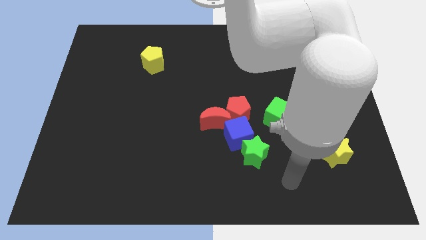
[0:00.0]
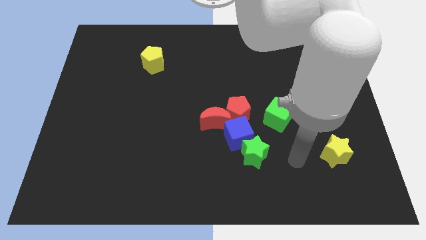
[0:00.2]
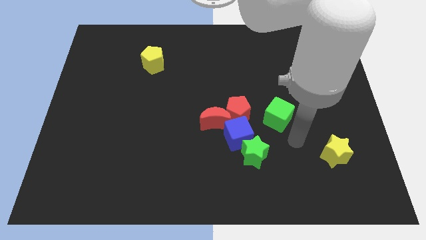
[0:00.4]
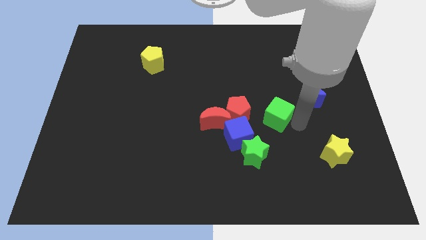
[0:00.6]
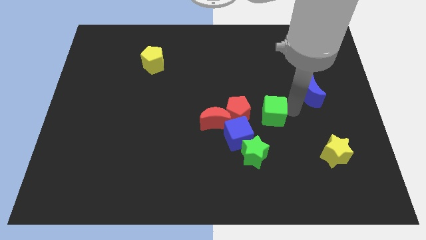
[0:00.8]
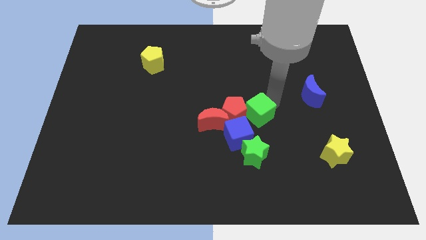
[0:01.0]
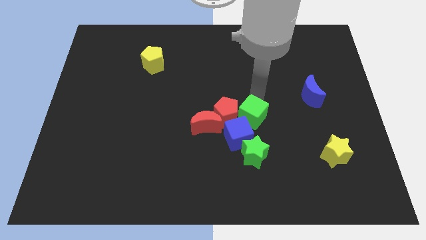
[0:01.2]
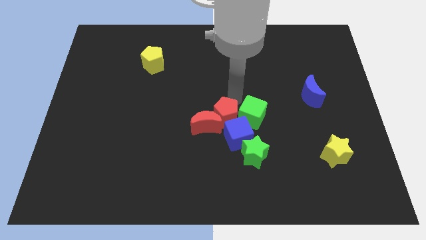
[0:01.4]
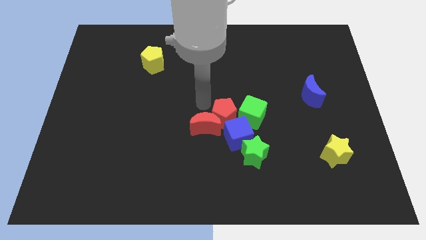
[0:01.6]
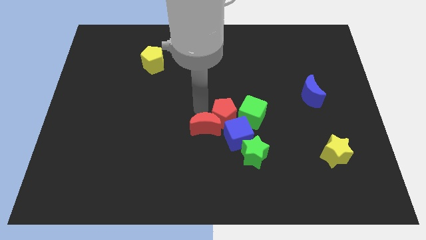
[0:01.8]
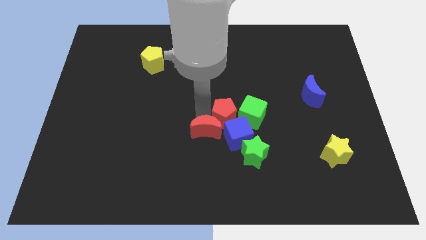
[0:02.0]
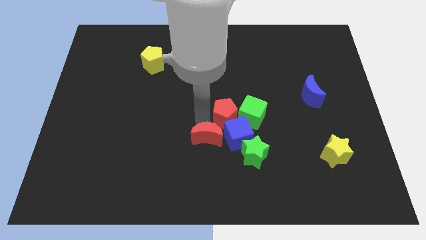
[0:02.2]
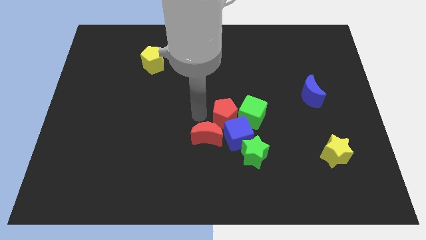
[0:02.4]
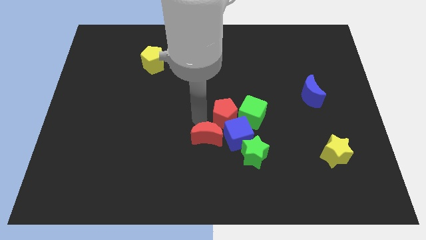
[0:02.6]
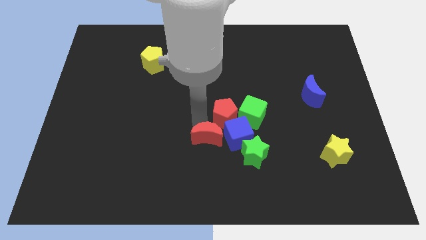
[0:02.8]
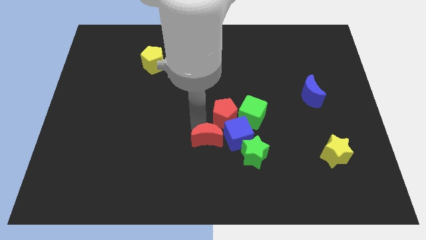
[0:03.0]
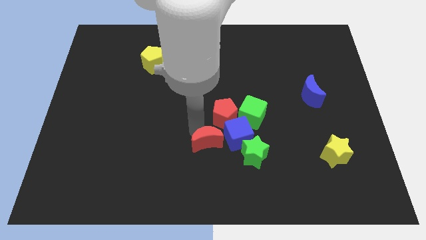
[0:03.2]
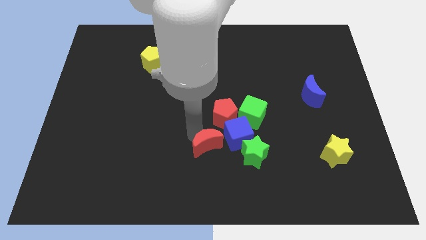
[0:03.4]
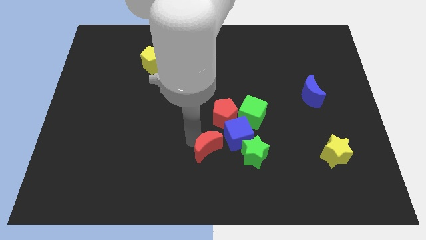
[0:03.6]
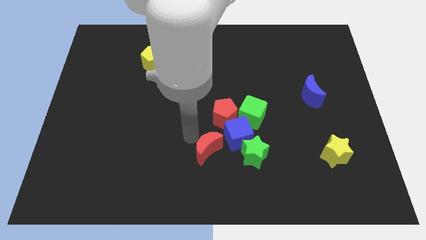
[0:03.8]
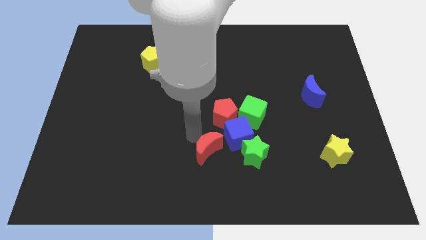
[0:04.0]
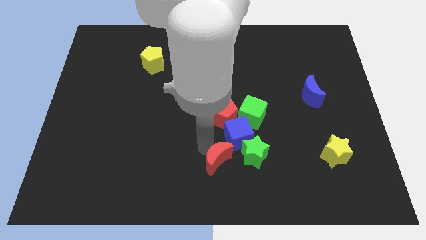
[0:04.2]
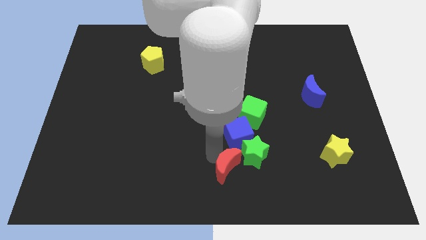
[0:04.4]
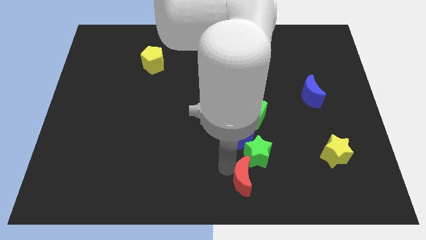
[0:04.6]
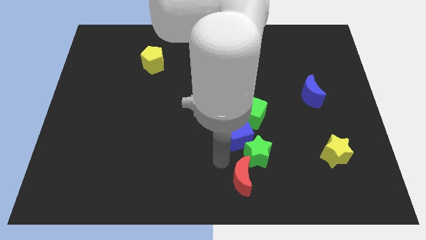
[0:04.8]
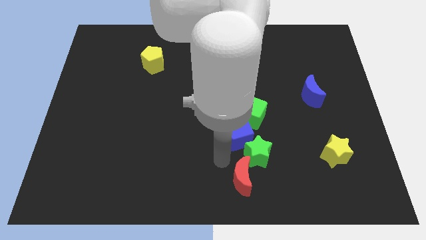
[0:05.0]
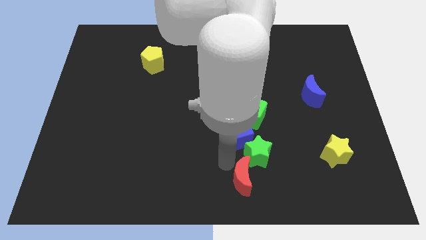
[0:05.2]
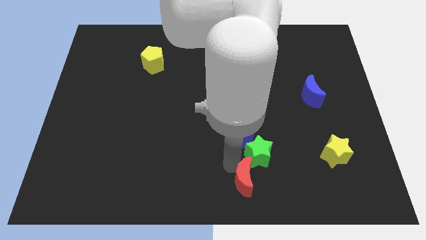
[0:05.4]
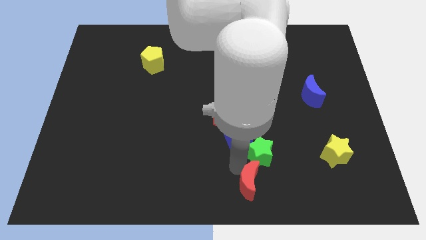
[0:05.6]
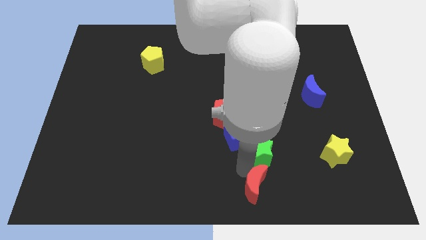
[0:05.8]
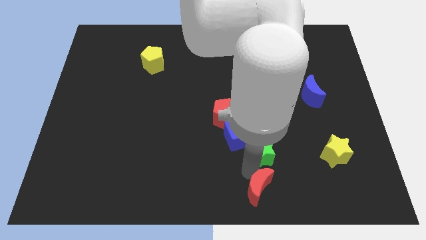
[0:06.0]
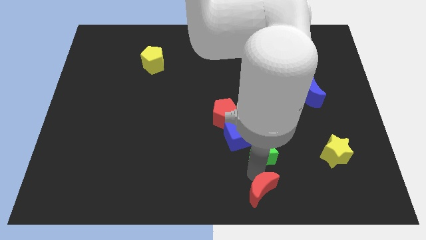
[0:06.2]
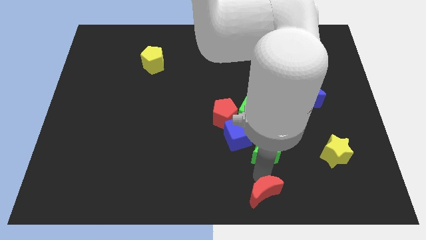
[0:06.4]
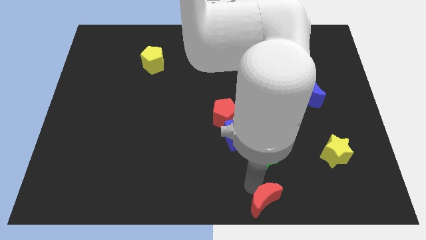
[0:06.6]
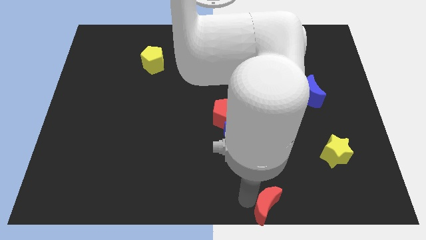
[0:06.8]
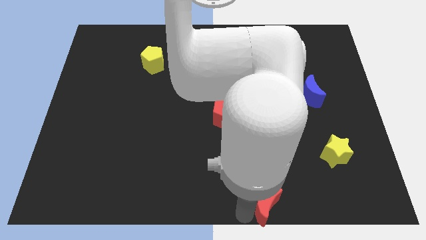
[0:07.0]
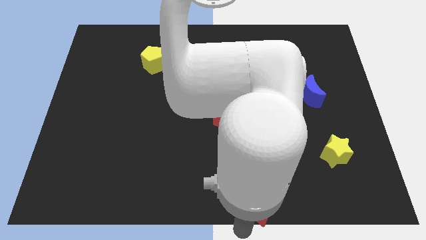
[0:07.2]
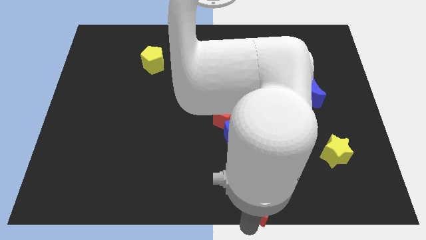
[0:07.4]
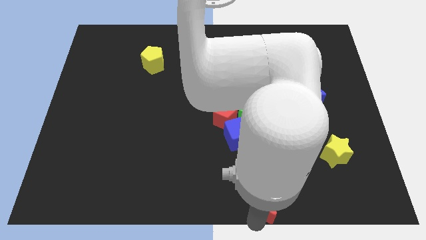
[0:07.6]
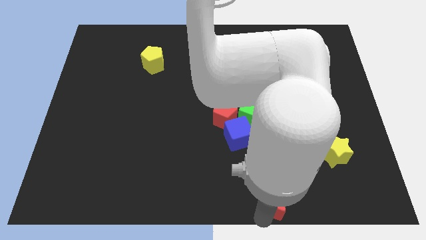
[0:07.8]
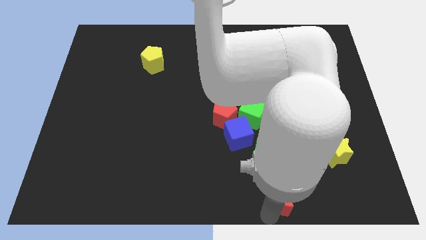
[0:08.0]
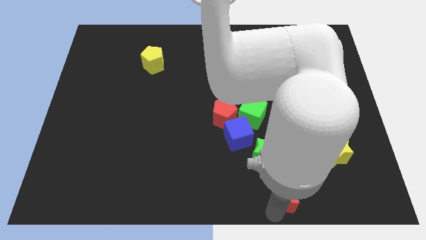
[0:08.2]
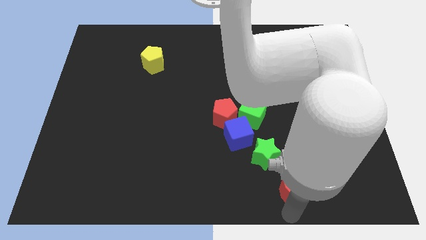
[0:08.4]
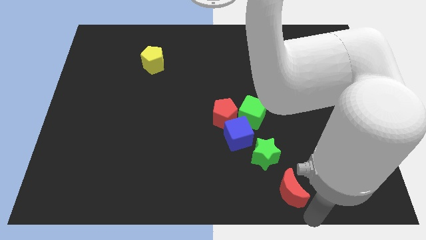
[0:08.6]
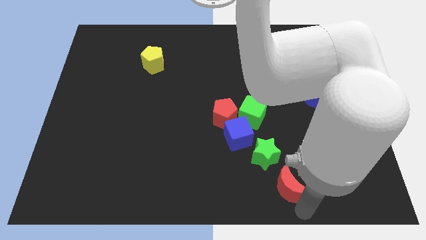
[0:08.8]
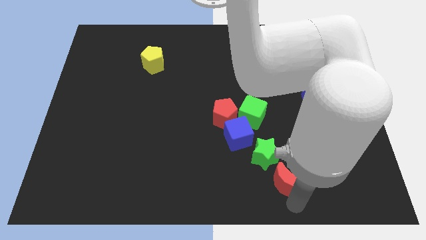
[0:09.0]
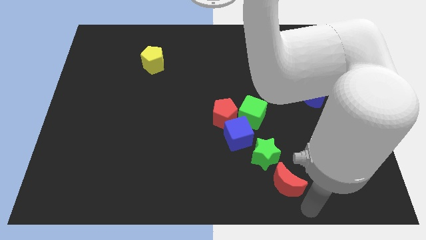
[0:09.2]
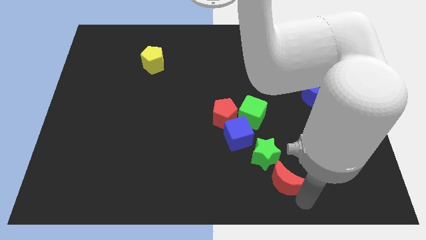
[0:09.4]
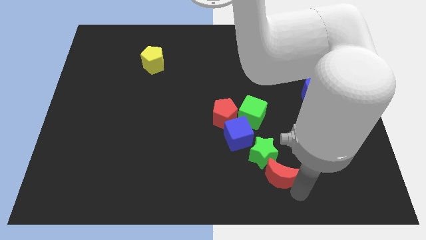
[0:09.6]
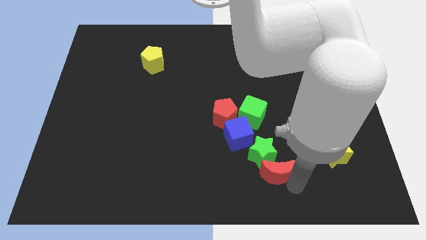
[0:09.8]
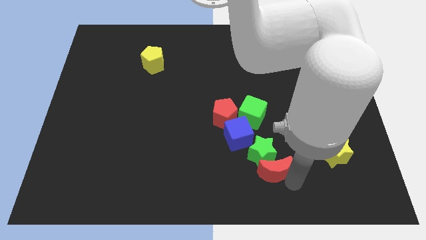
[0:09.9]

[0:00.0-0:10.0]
push the red moon to the bottom side of the green cube

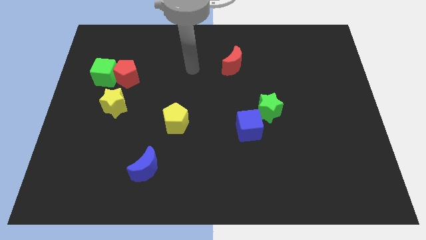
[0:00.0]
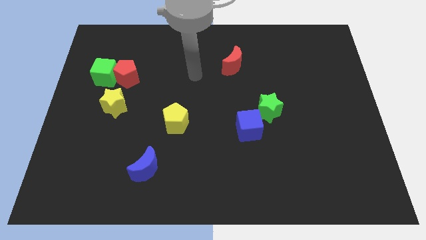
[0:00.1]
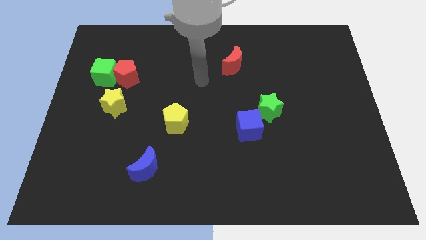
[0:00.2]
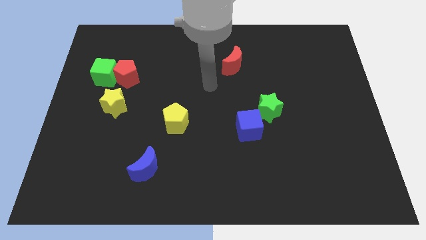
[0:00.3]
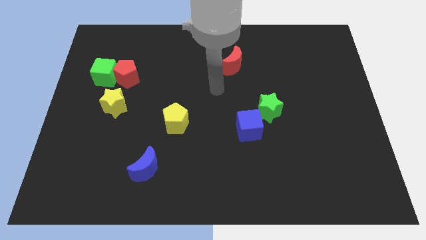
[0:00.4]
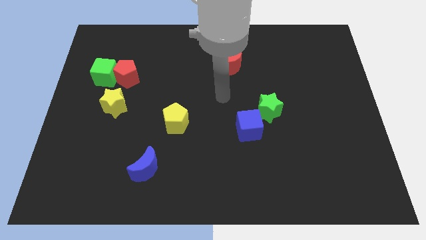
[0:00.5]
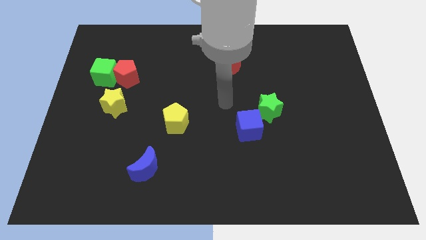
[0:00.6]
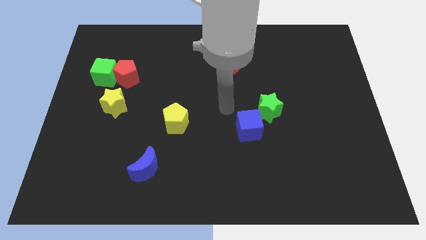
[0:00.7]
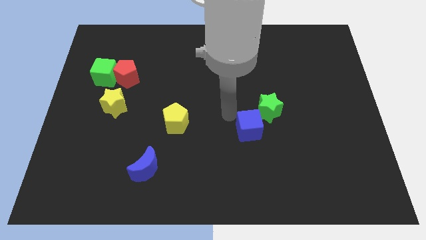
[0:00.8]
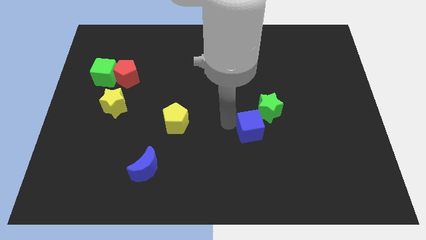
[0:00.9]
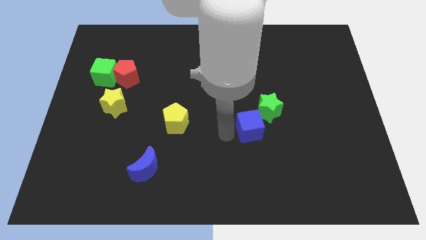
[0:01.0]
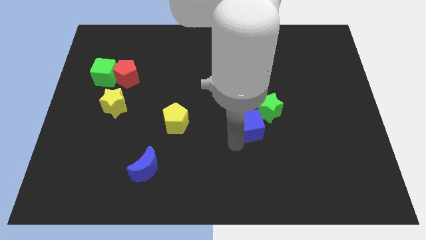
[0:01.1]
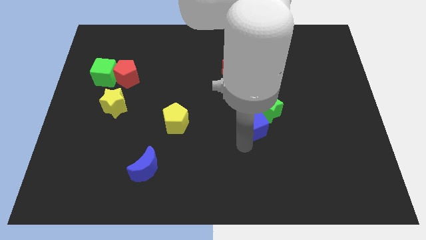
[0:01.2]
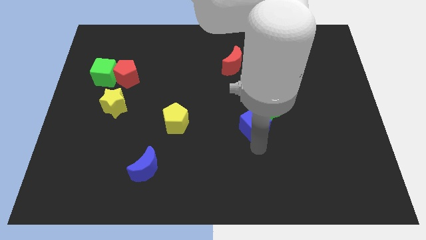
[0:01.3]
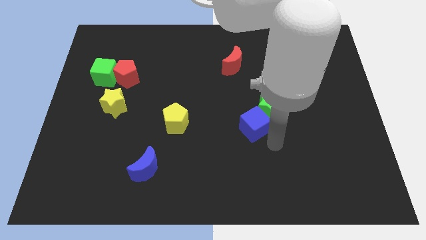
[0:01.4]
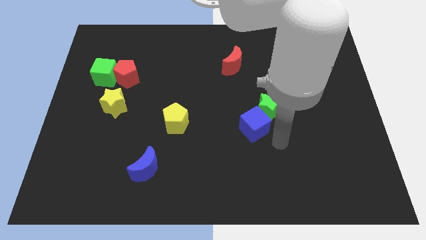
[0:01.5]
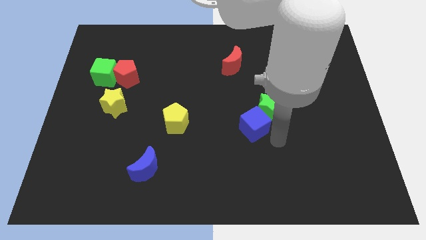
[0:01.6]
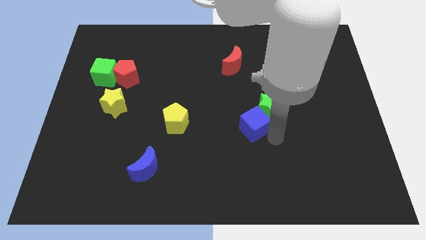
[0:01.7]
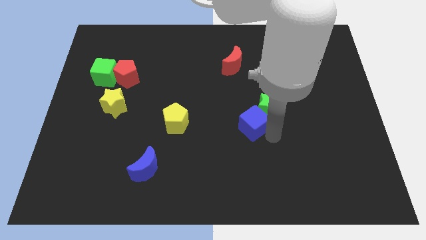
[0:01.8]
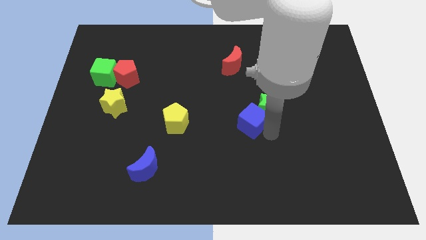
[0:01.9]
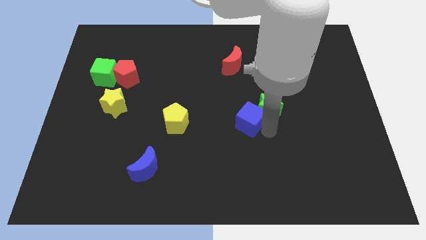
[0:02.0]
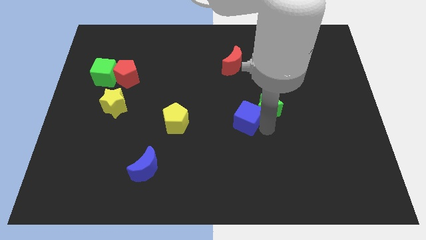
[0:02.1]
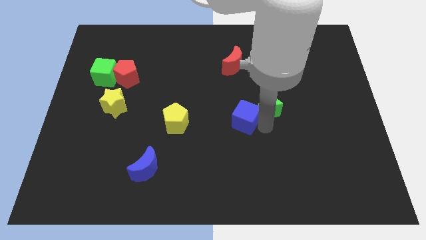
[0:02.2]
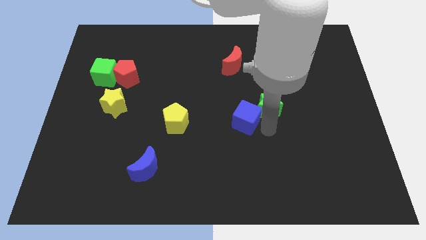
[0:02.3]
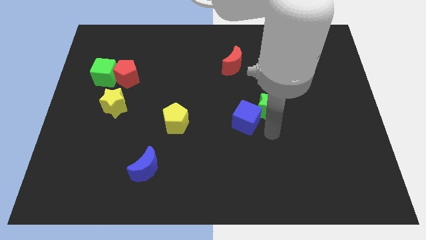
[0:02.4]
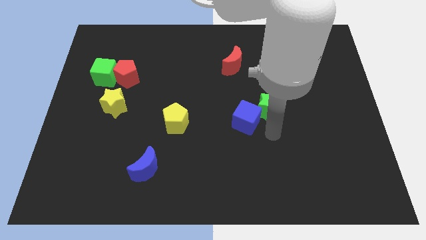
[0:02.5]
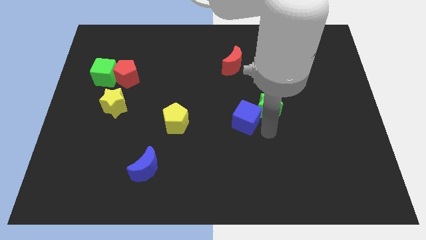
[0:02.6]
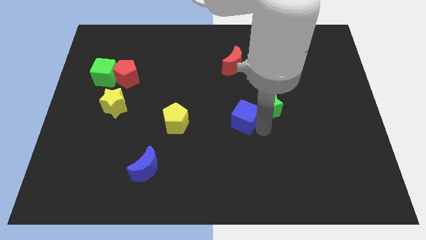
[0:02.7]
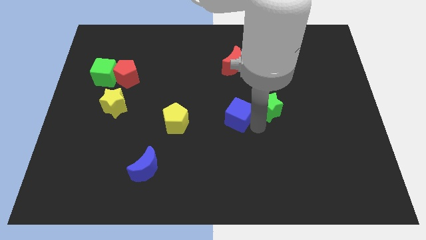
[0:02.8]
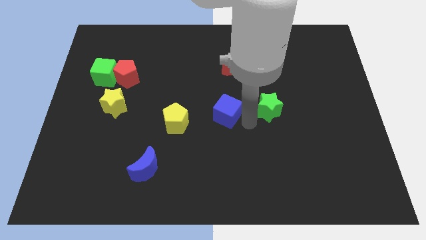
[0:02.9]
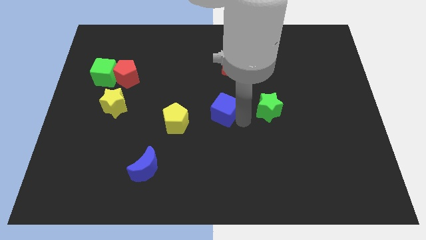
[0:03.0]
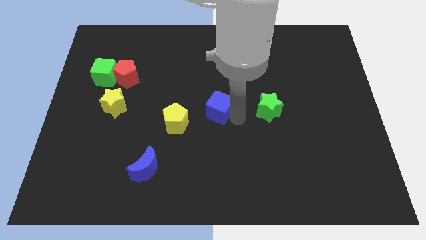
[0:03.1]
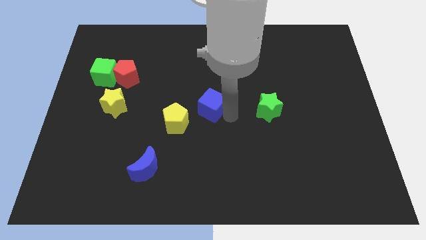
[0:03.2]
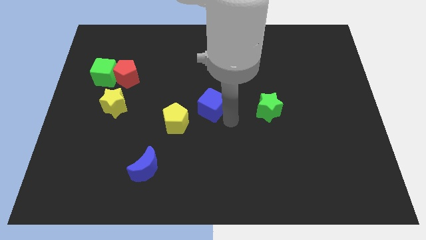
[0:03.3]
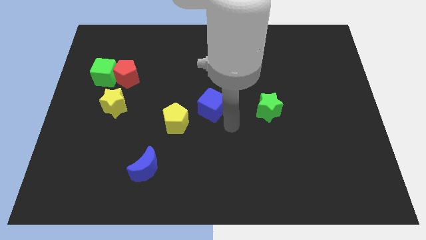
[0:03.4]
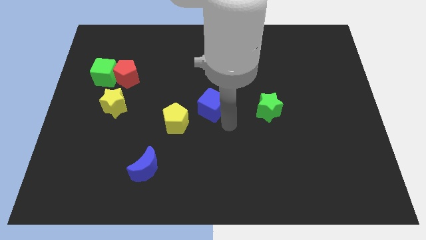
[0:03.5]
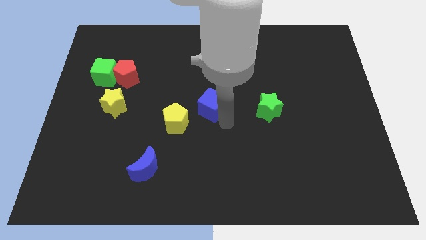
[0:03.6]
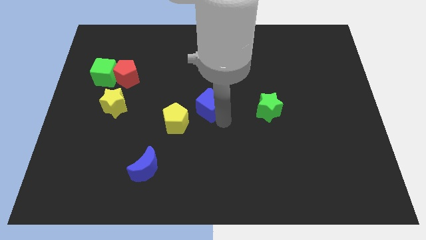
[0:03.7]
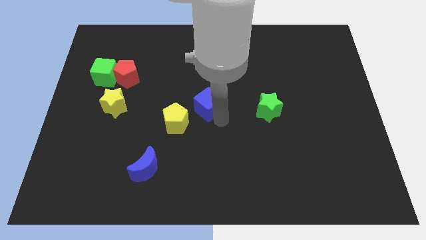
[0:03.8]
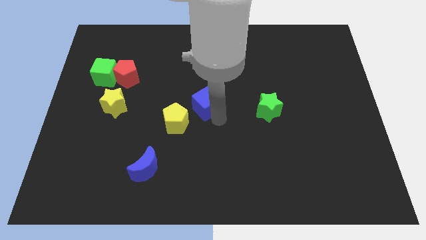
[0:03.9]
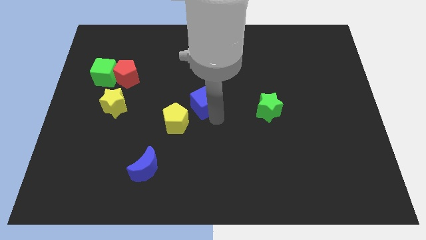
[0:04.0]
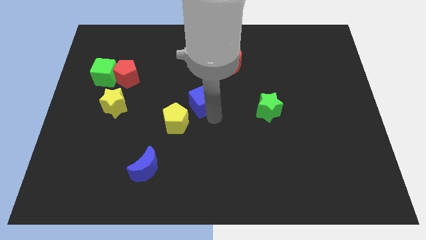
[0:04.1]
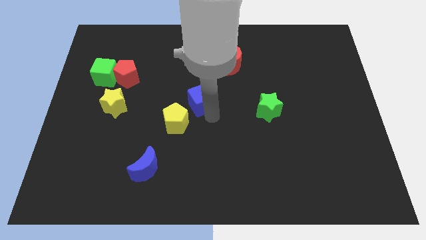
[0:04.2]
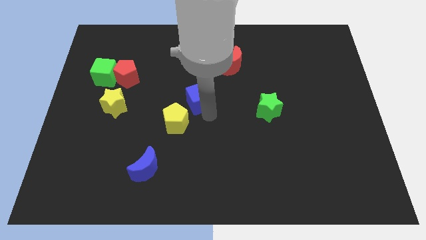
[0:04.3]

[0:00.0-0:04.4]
move the blue cube to the top of the yellow pentagon
